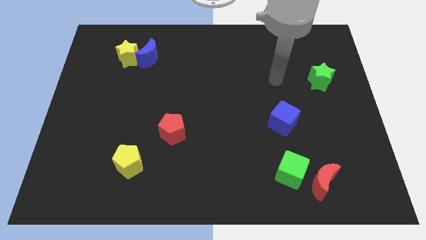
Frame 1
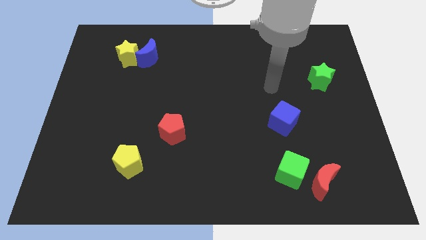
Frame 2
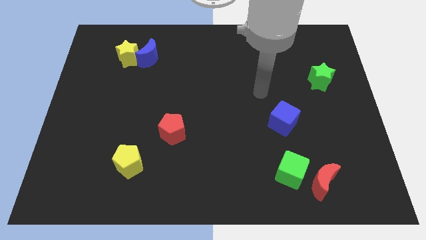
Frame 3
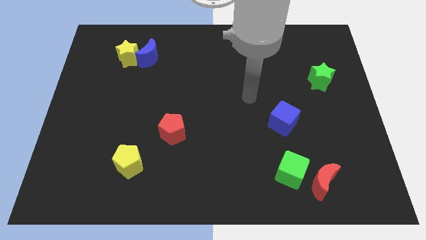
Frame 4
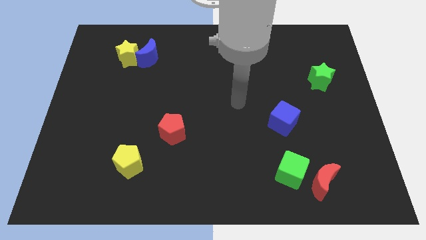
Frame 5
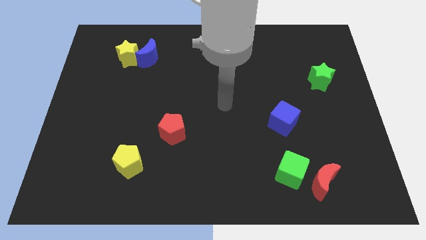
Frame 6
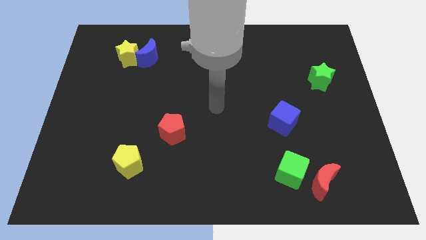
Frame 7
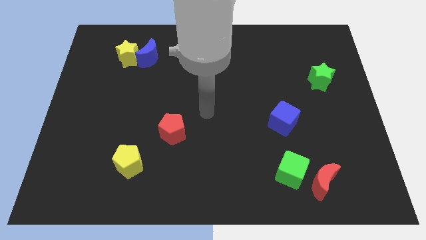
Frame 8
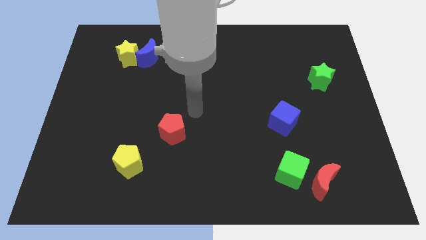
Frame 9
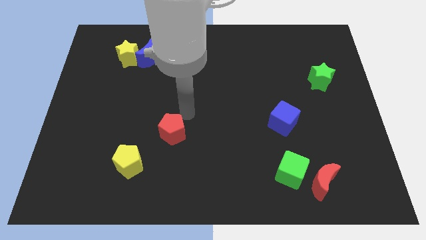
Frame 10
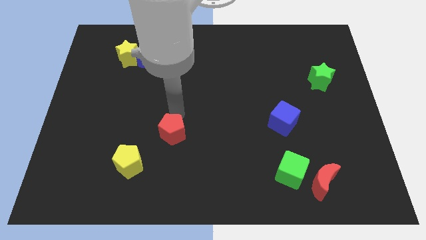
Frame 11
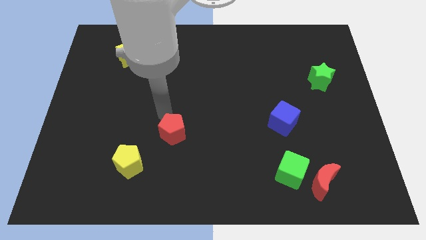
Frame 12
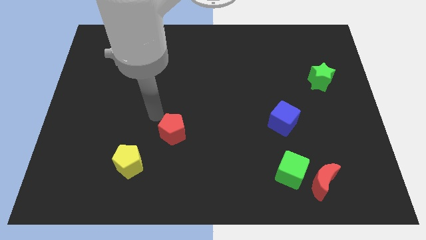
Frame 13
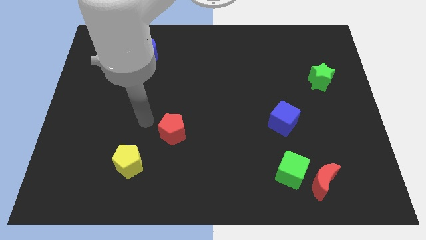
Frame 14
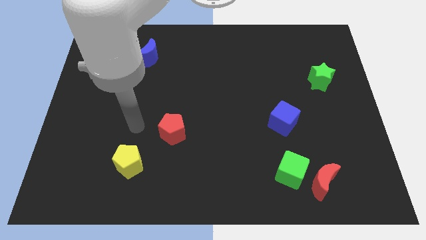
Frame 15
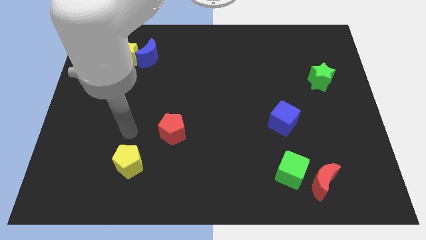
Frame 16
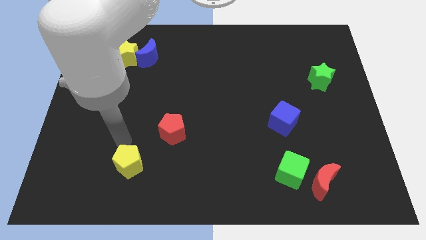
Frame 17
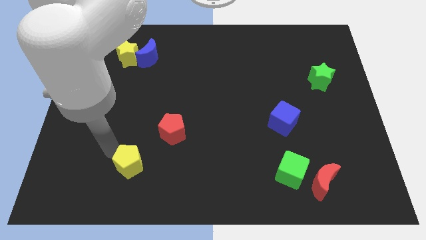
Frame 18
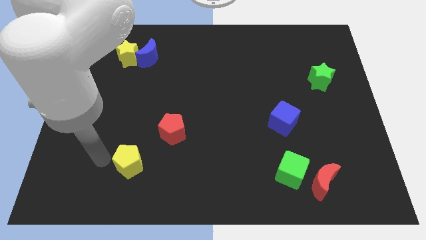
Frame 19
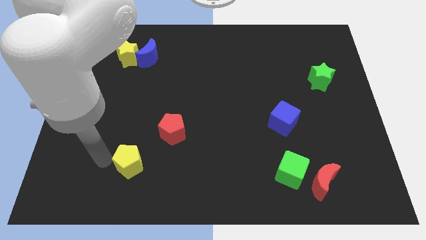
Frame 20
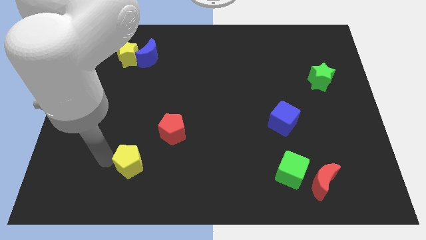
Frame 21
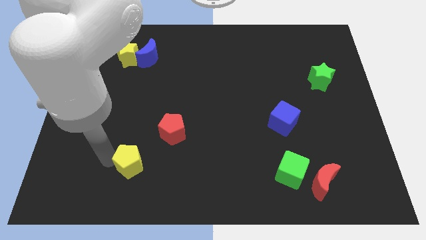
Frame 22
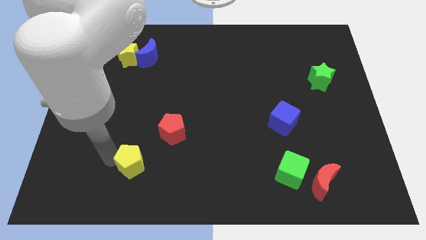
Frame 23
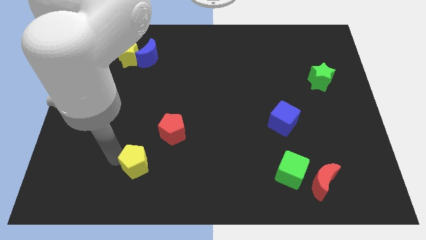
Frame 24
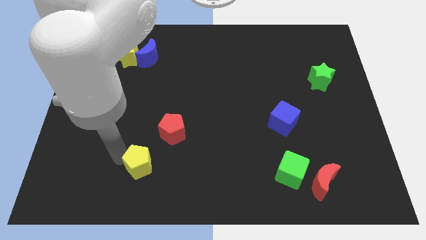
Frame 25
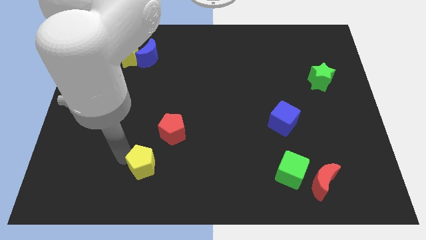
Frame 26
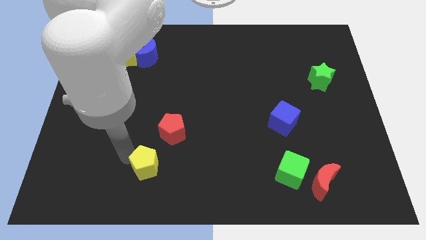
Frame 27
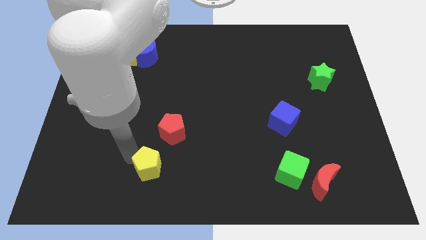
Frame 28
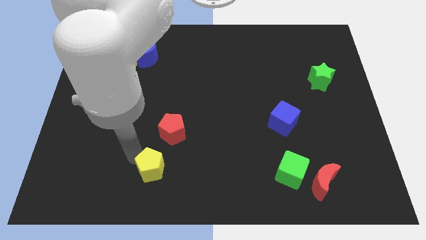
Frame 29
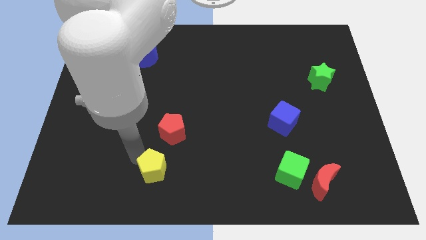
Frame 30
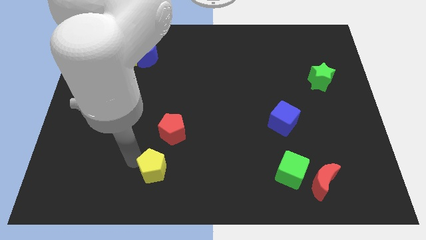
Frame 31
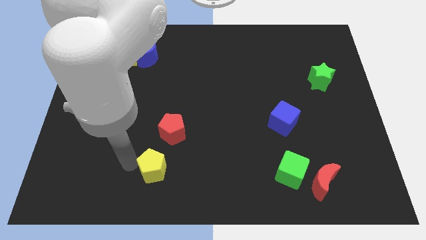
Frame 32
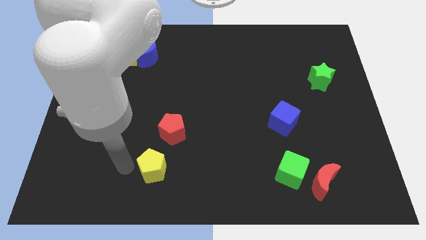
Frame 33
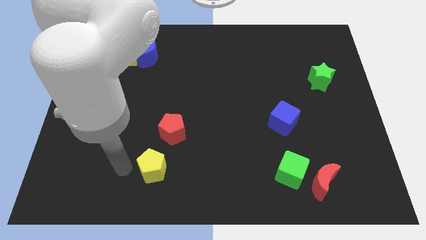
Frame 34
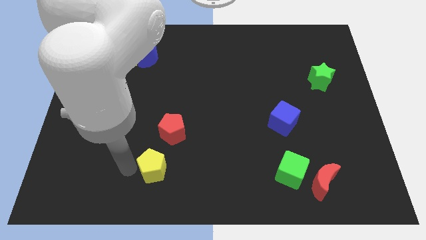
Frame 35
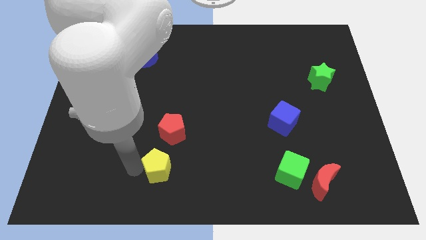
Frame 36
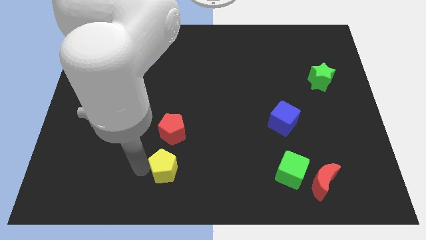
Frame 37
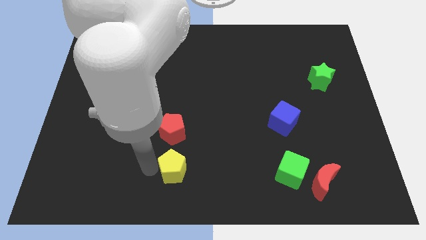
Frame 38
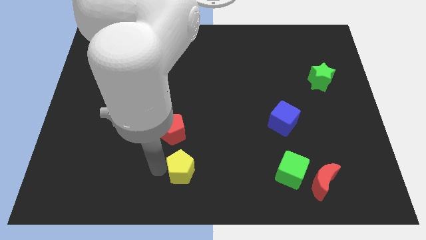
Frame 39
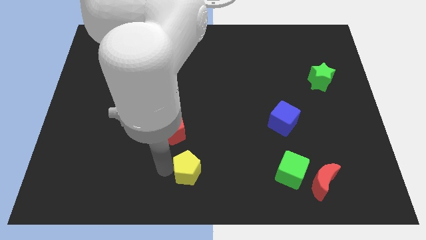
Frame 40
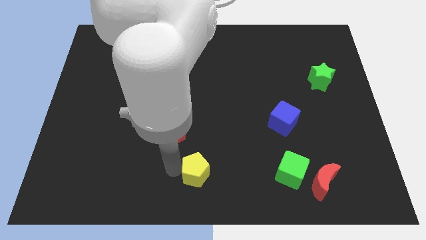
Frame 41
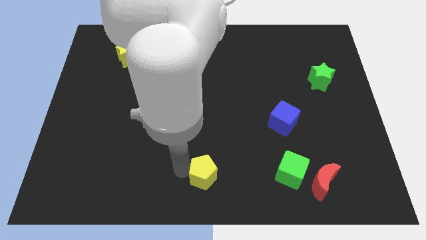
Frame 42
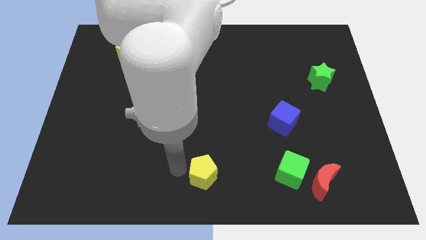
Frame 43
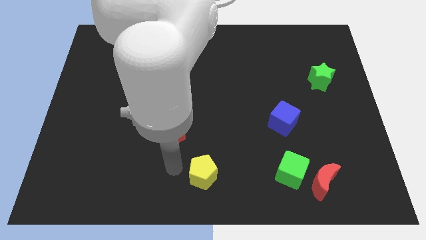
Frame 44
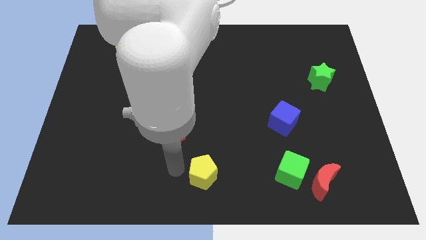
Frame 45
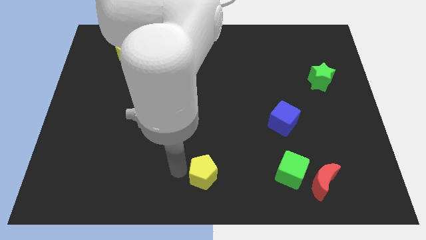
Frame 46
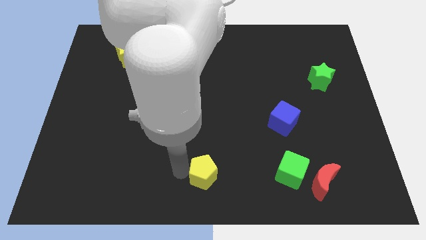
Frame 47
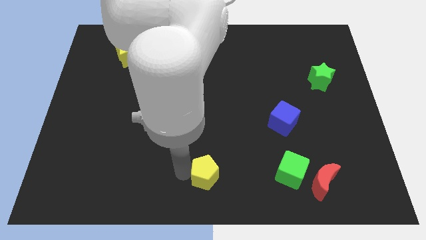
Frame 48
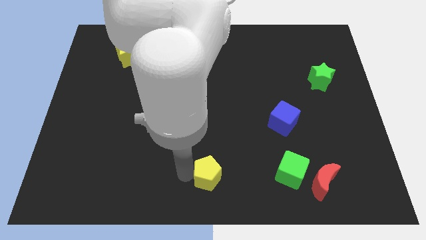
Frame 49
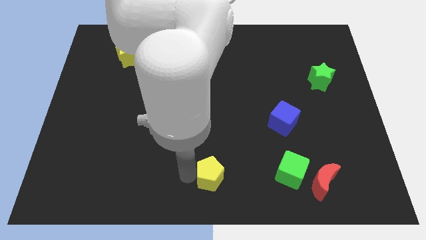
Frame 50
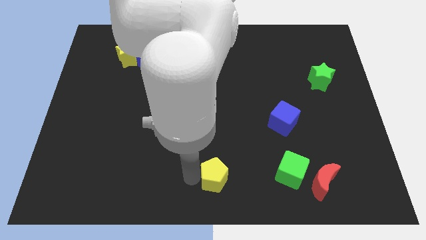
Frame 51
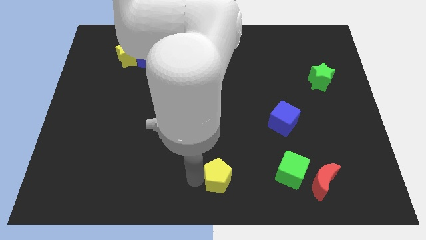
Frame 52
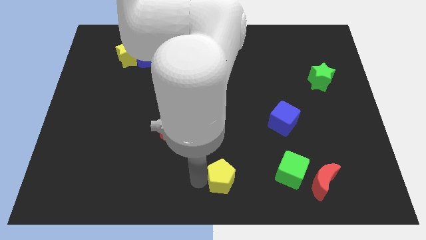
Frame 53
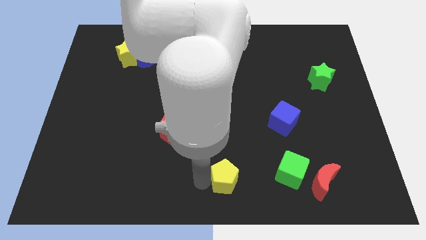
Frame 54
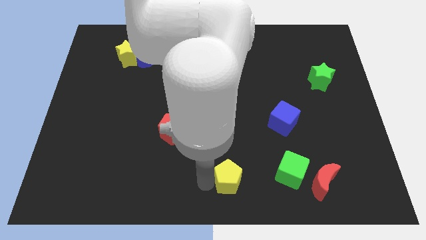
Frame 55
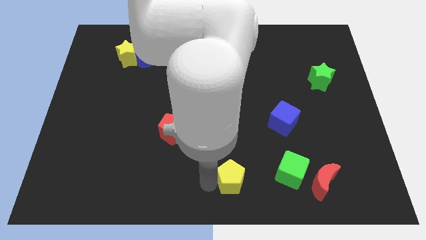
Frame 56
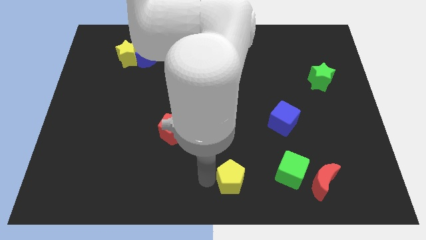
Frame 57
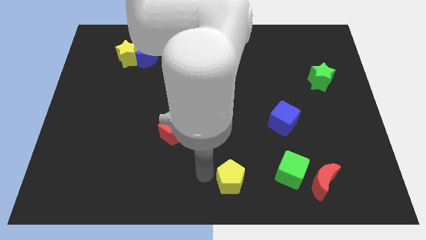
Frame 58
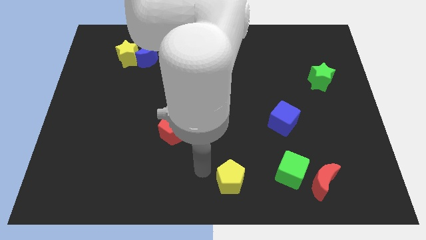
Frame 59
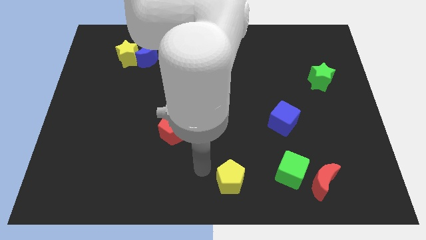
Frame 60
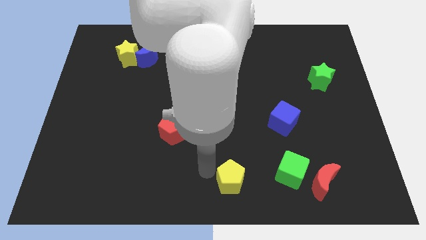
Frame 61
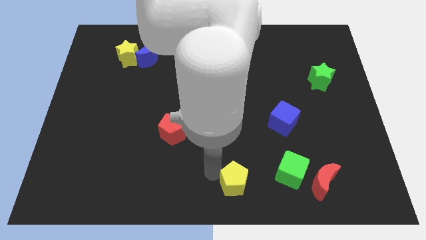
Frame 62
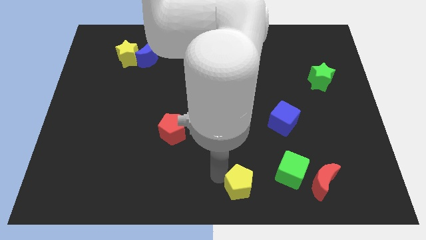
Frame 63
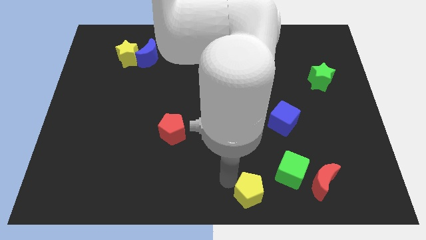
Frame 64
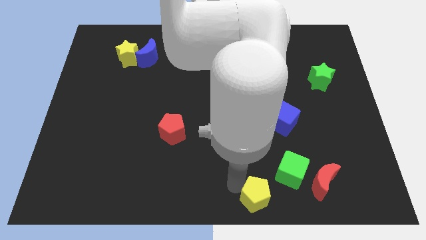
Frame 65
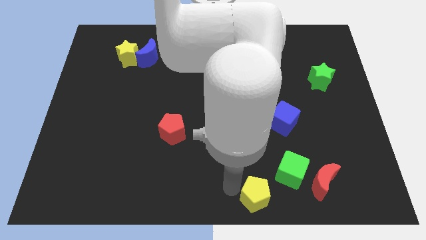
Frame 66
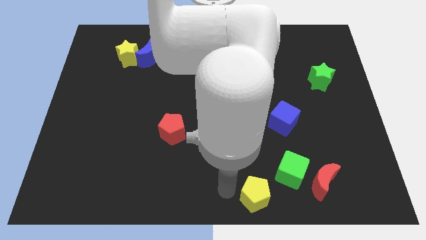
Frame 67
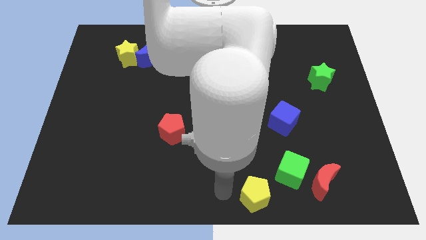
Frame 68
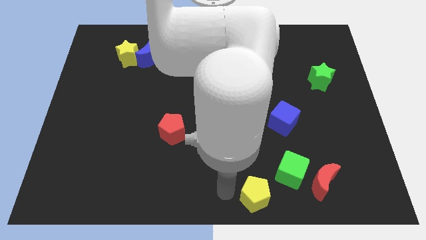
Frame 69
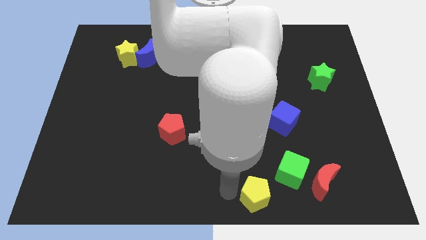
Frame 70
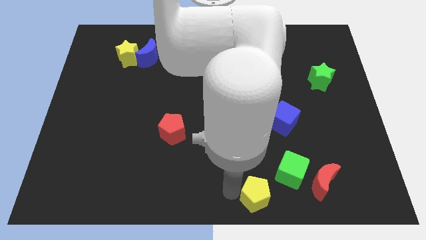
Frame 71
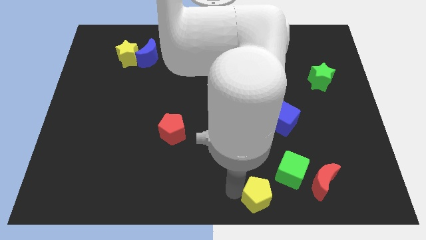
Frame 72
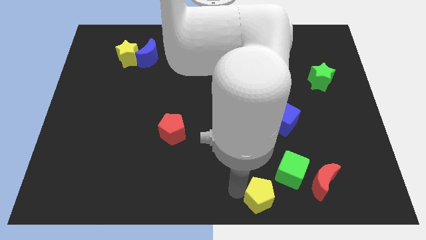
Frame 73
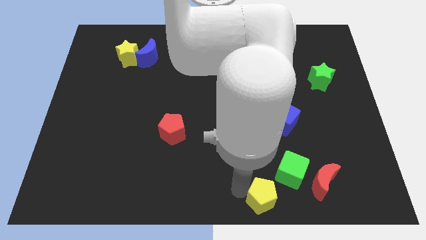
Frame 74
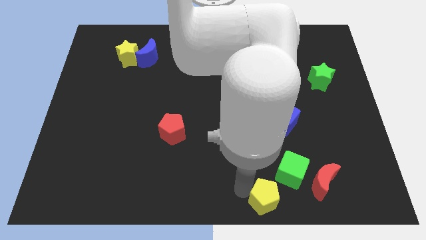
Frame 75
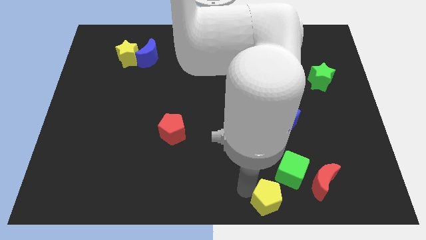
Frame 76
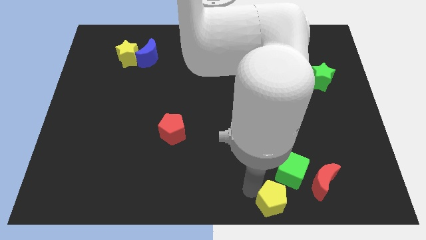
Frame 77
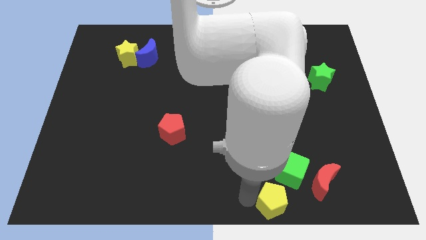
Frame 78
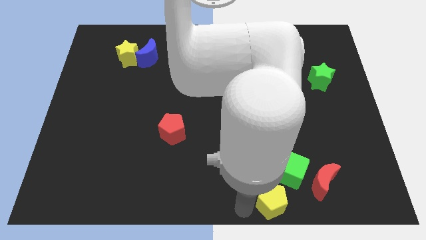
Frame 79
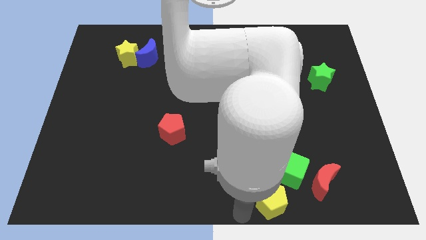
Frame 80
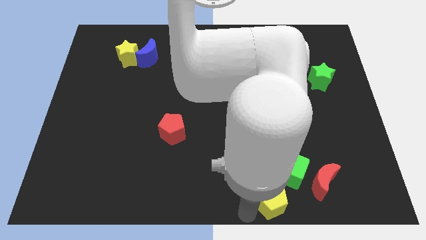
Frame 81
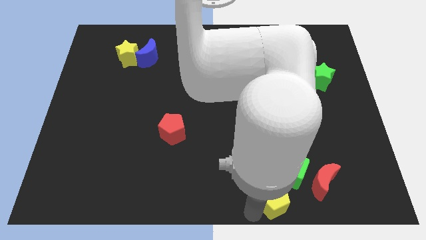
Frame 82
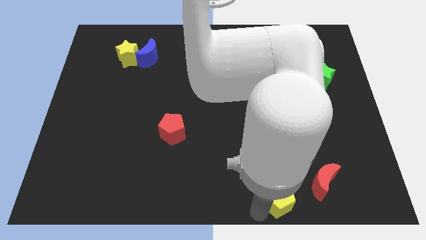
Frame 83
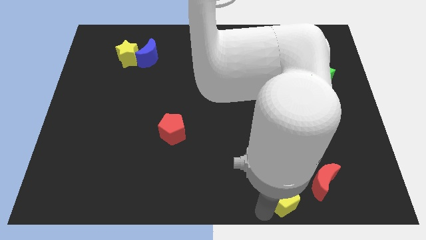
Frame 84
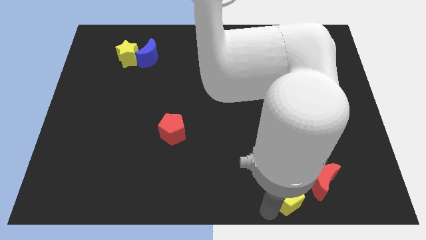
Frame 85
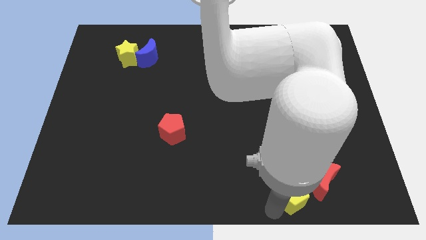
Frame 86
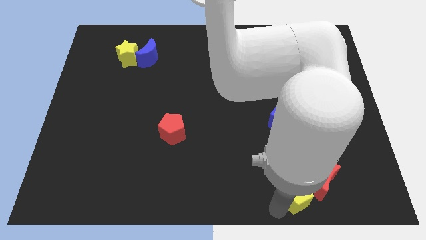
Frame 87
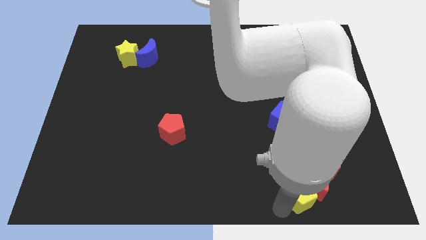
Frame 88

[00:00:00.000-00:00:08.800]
slide the yellow pentagon next to the red moon
